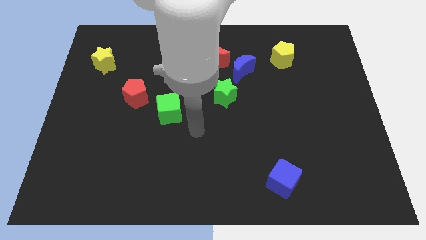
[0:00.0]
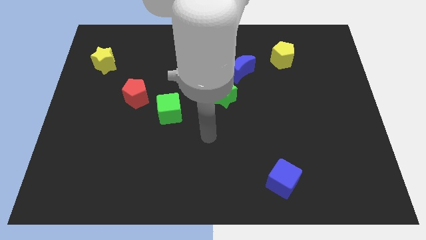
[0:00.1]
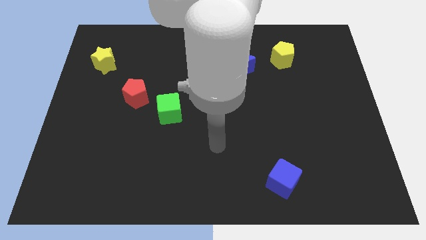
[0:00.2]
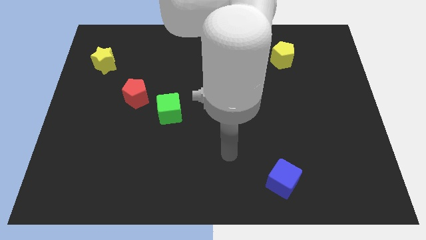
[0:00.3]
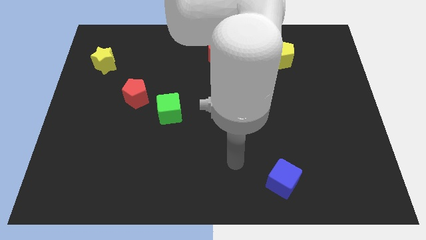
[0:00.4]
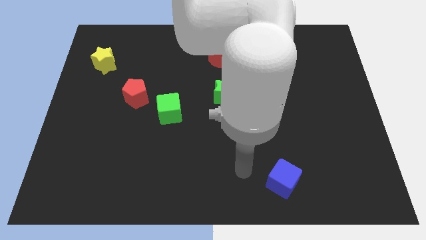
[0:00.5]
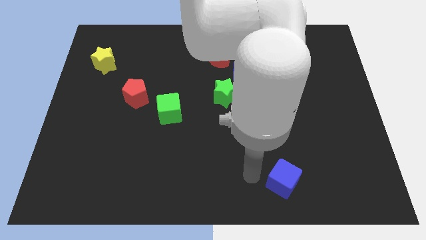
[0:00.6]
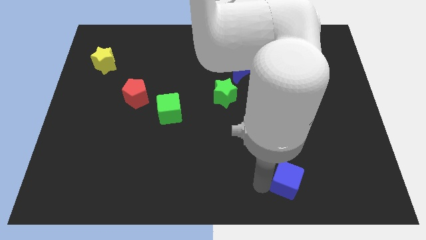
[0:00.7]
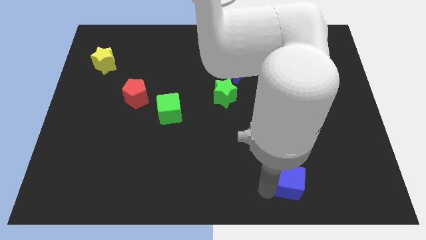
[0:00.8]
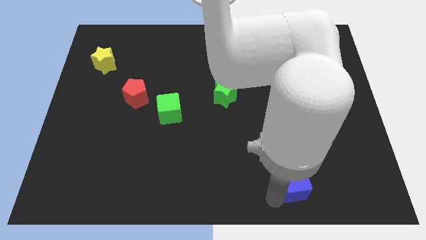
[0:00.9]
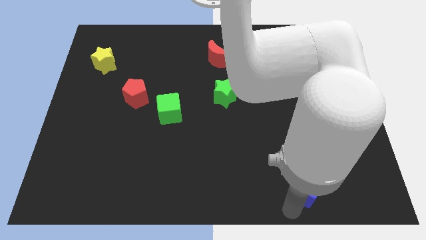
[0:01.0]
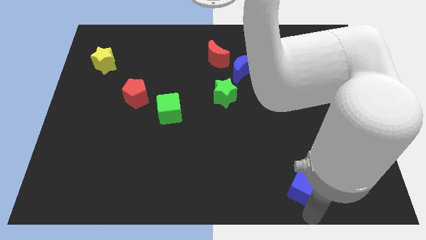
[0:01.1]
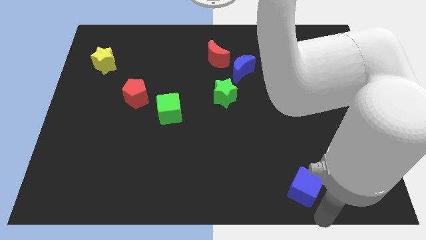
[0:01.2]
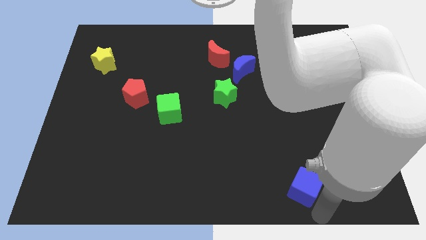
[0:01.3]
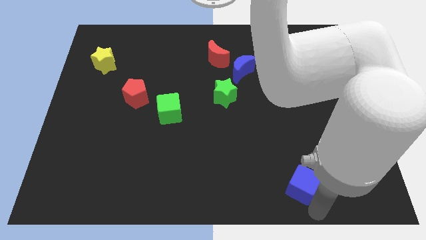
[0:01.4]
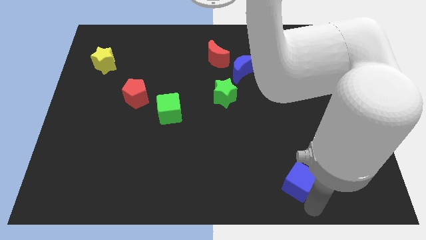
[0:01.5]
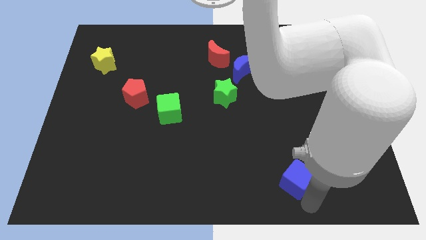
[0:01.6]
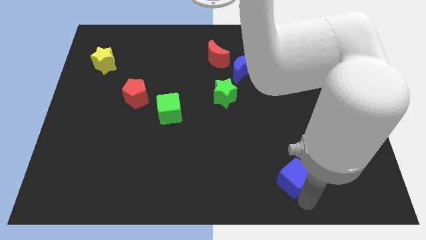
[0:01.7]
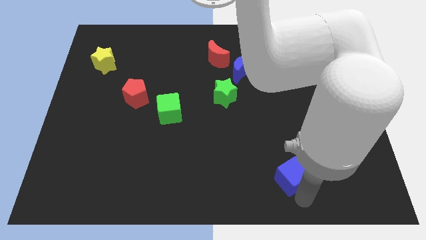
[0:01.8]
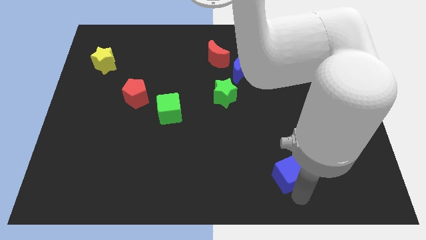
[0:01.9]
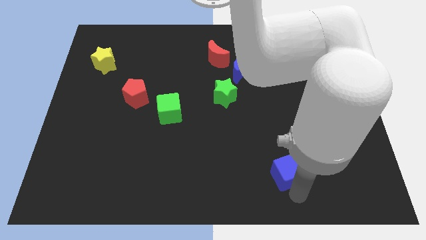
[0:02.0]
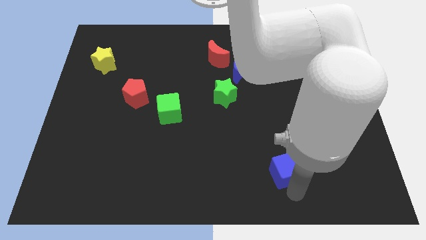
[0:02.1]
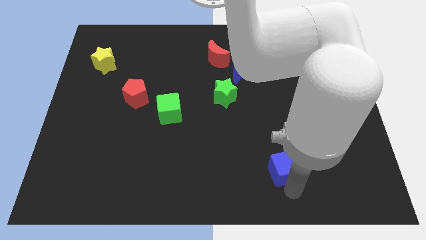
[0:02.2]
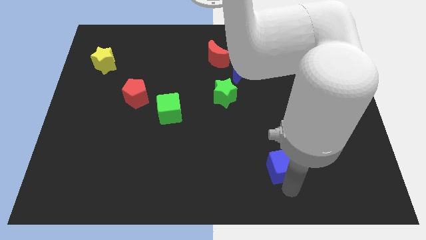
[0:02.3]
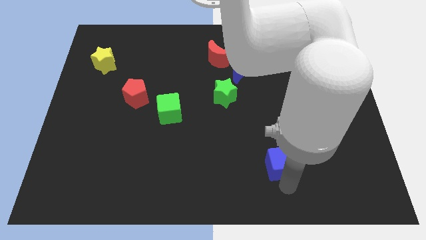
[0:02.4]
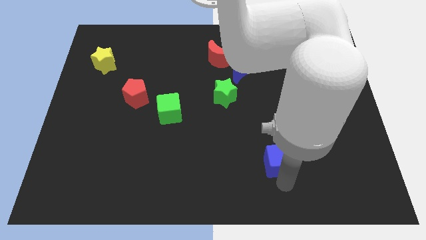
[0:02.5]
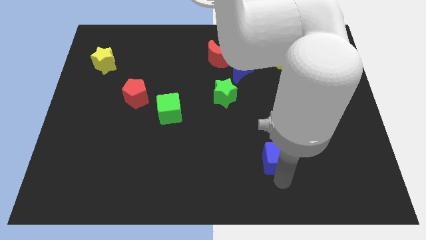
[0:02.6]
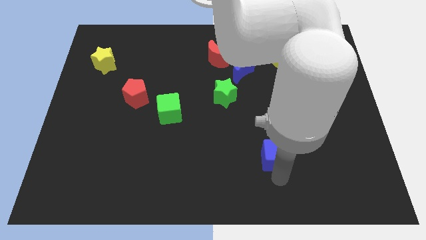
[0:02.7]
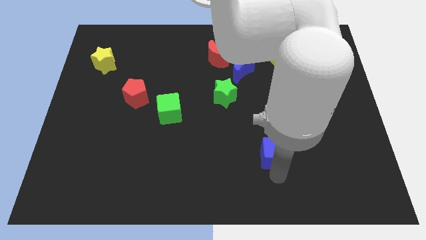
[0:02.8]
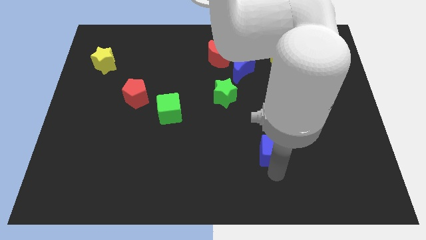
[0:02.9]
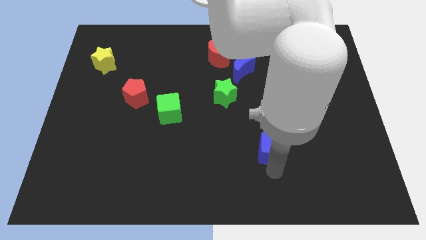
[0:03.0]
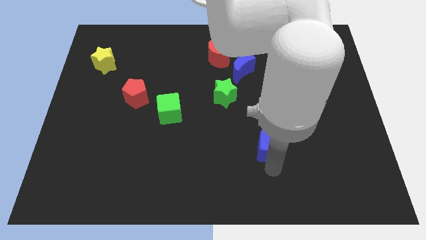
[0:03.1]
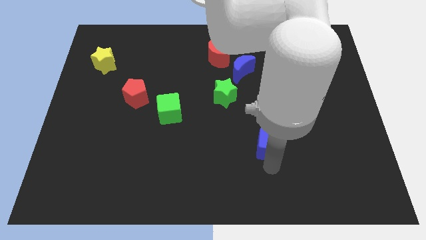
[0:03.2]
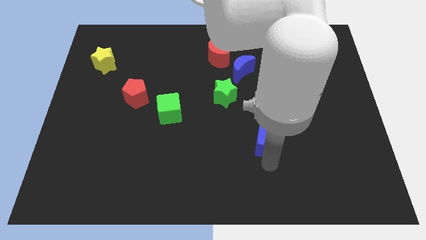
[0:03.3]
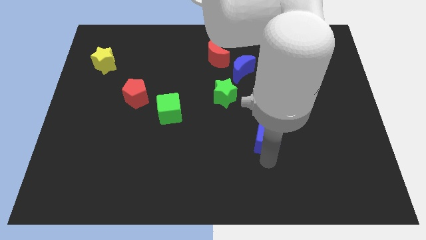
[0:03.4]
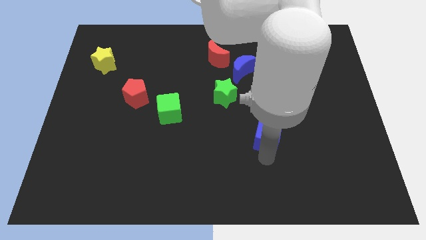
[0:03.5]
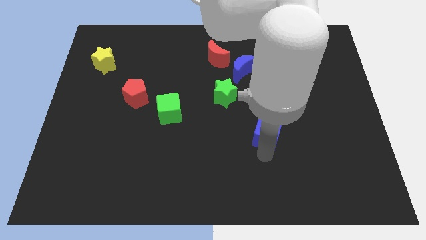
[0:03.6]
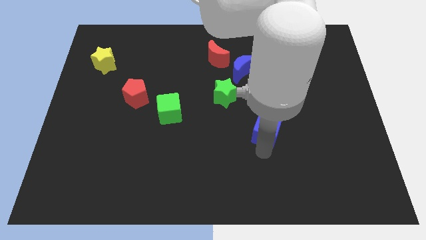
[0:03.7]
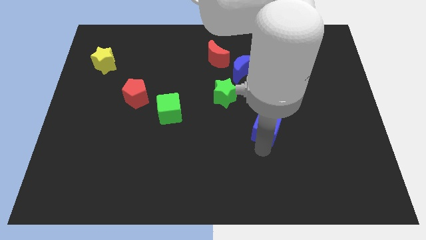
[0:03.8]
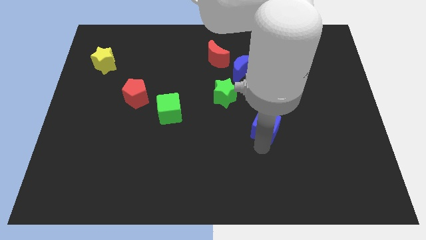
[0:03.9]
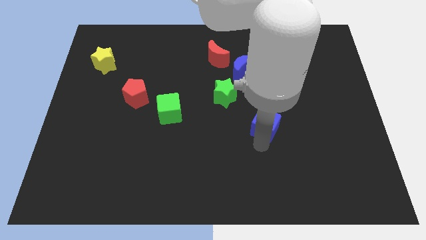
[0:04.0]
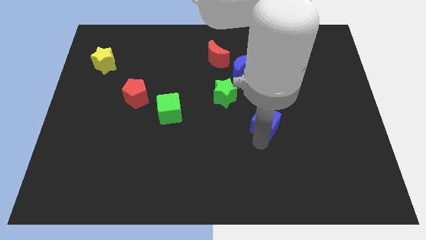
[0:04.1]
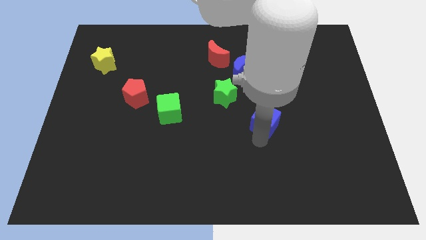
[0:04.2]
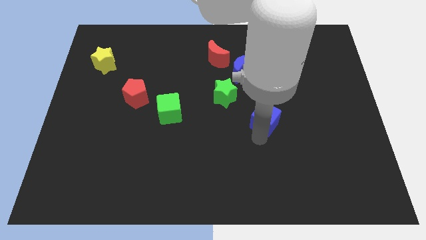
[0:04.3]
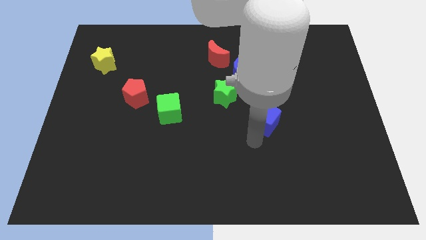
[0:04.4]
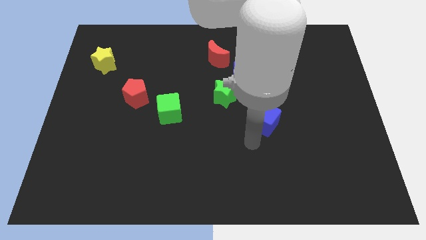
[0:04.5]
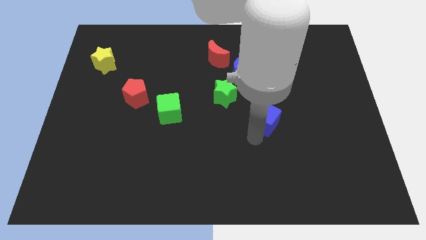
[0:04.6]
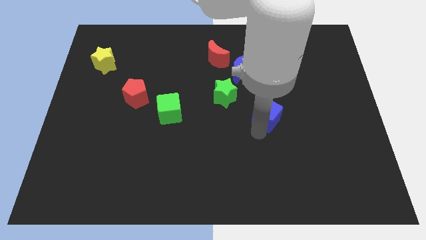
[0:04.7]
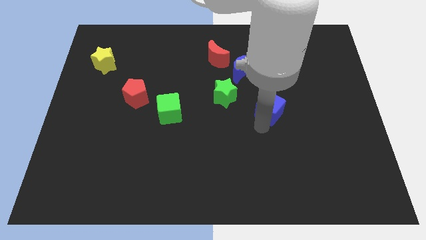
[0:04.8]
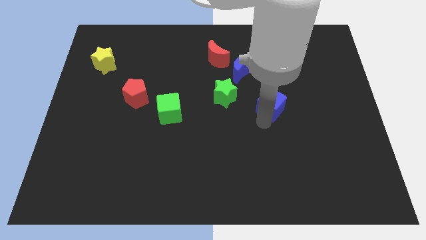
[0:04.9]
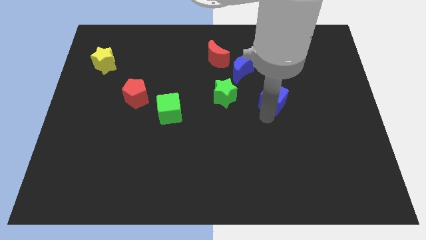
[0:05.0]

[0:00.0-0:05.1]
move the blue cube up

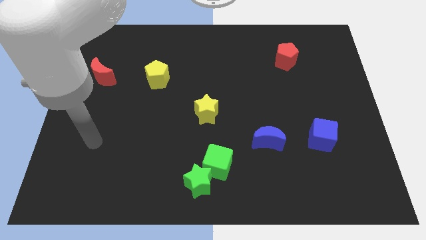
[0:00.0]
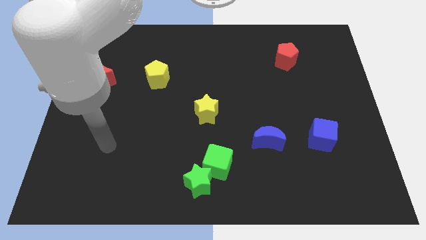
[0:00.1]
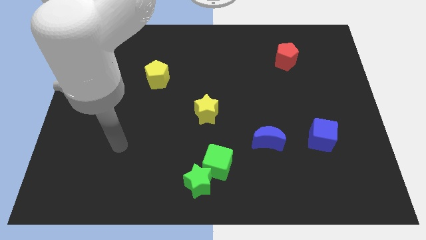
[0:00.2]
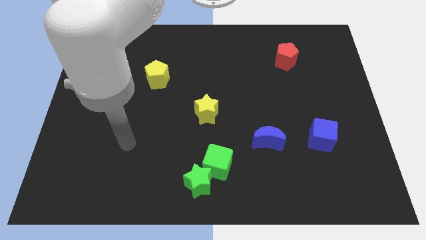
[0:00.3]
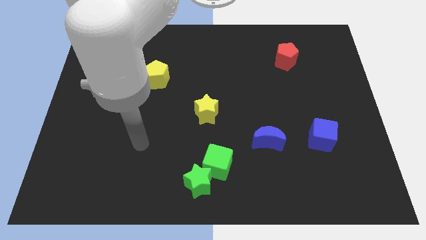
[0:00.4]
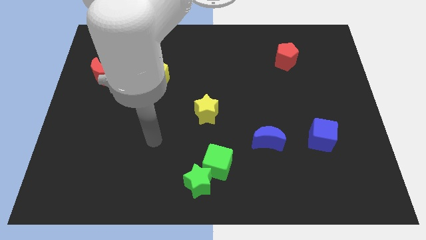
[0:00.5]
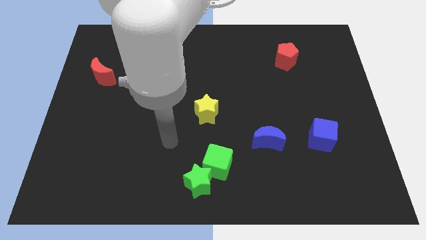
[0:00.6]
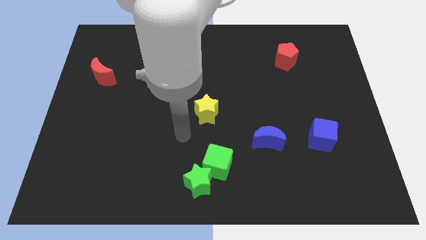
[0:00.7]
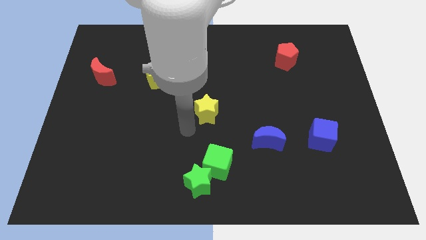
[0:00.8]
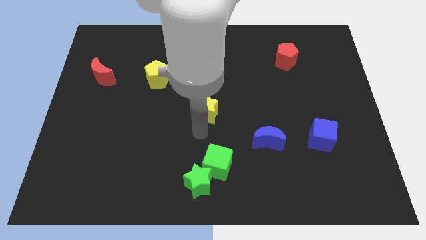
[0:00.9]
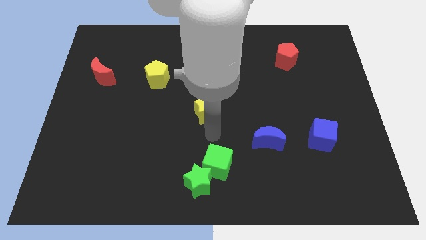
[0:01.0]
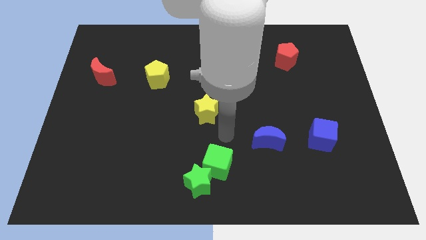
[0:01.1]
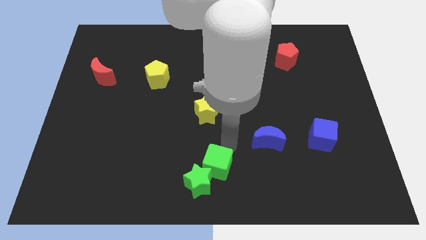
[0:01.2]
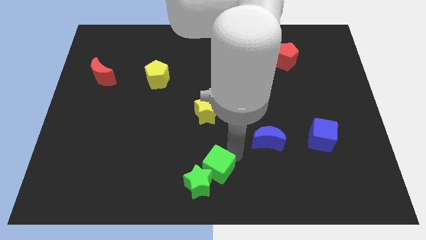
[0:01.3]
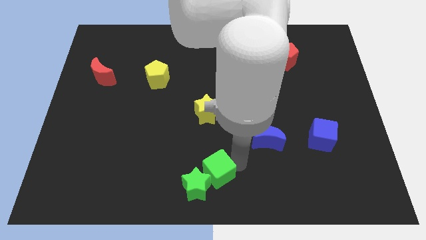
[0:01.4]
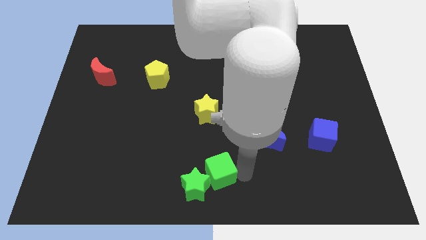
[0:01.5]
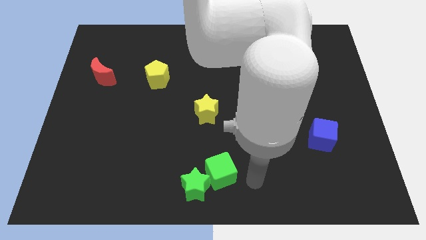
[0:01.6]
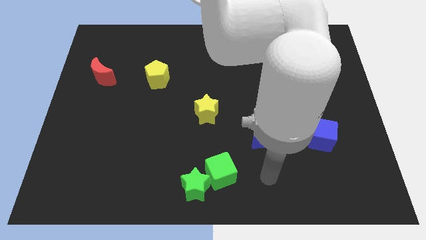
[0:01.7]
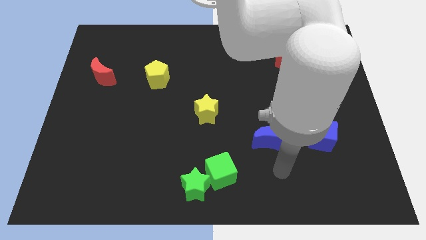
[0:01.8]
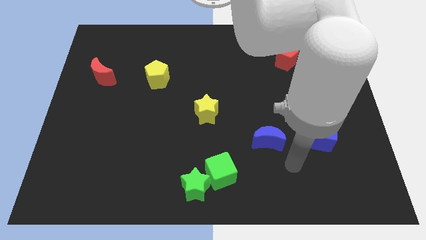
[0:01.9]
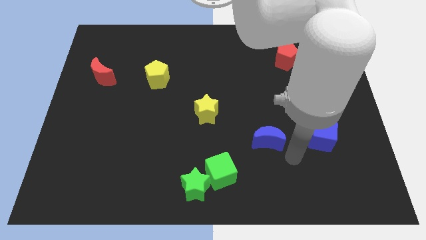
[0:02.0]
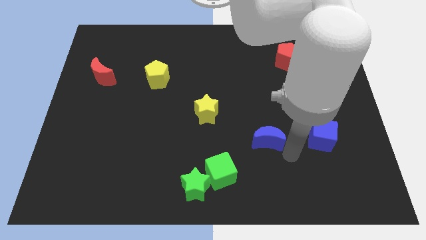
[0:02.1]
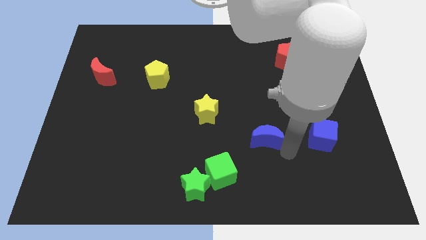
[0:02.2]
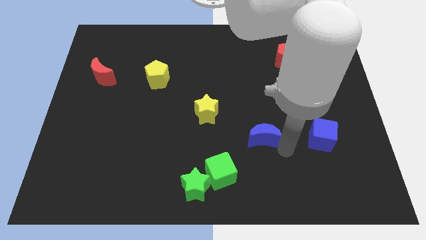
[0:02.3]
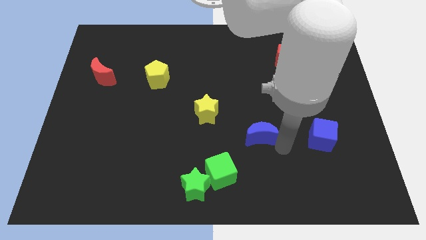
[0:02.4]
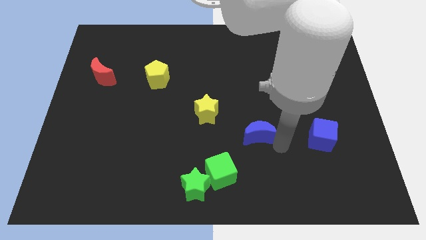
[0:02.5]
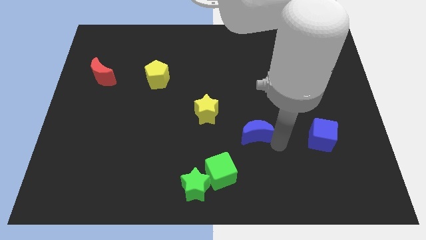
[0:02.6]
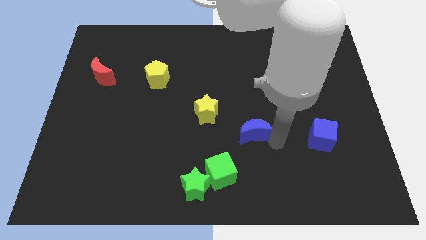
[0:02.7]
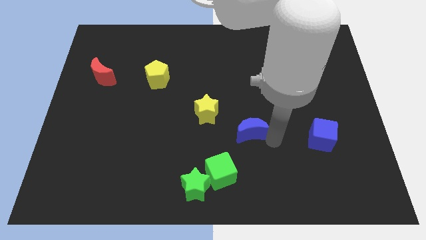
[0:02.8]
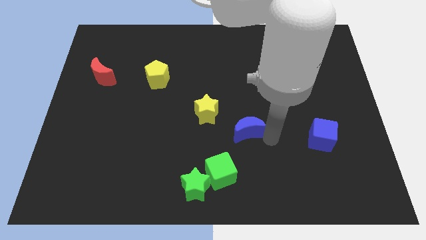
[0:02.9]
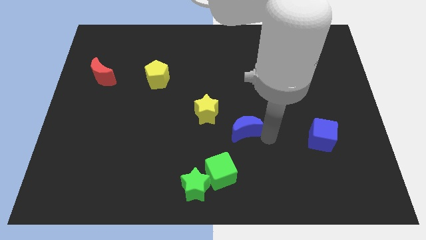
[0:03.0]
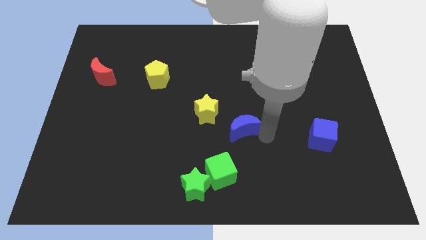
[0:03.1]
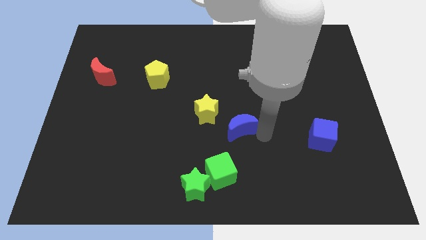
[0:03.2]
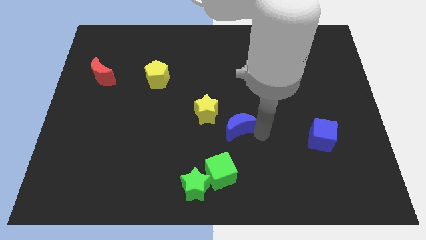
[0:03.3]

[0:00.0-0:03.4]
move the blue moon diagonally upwards and left a bit
